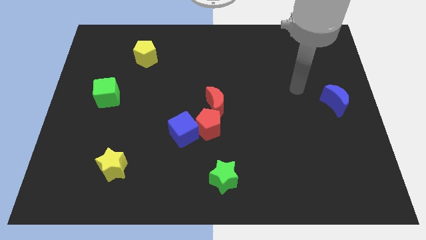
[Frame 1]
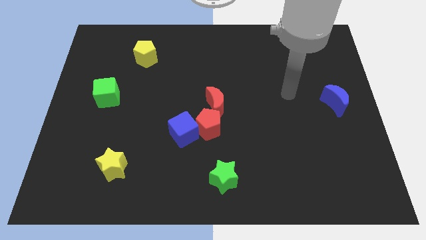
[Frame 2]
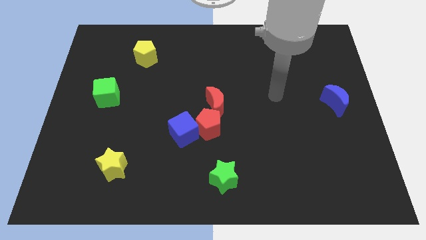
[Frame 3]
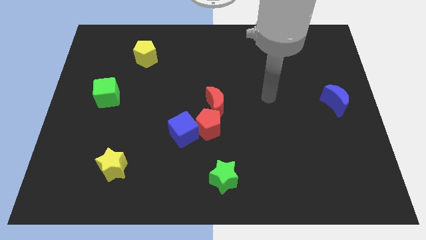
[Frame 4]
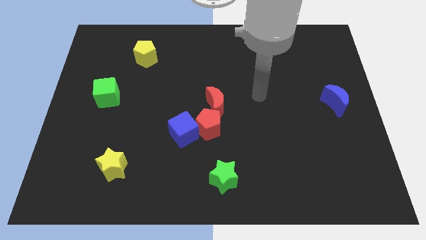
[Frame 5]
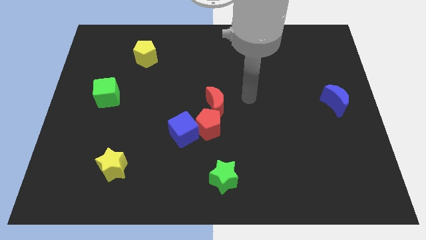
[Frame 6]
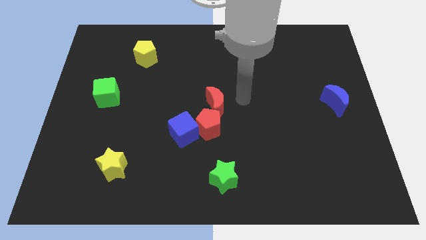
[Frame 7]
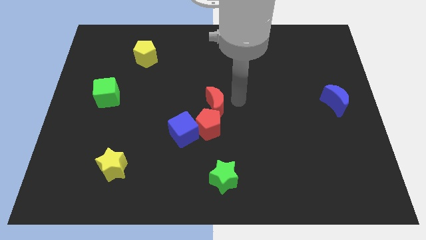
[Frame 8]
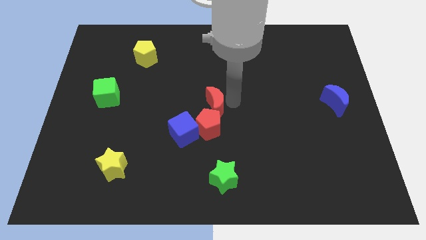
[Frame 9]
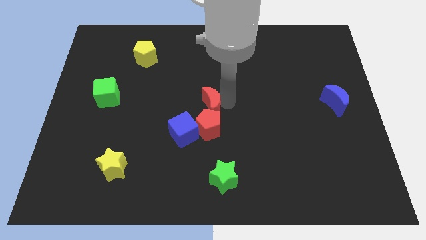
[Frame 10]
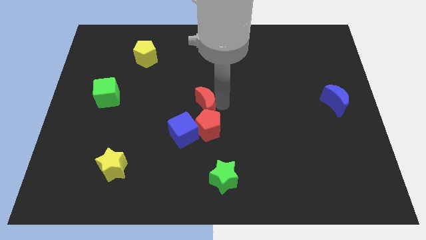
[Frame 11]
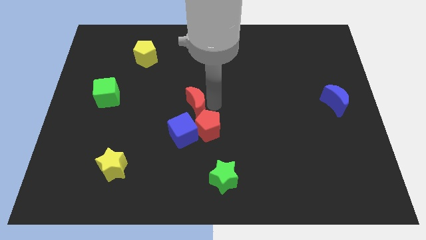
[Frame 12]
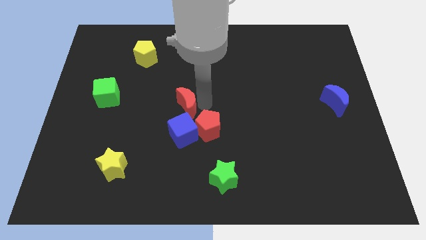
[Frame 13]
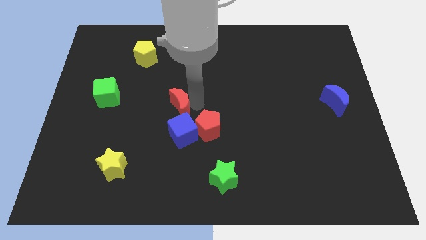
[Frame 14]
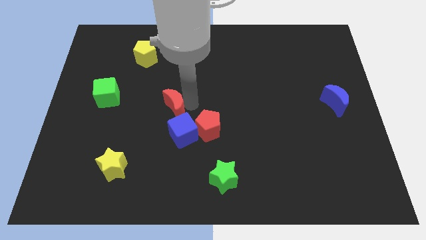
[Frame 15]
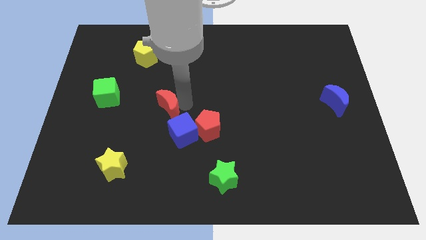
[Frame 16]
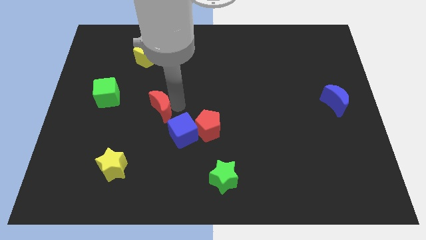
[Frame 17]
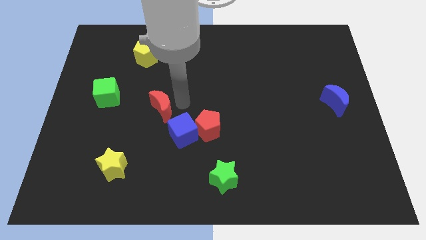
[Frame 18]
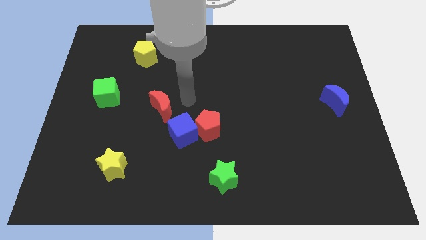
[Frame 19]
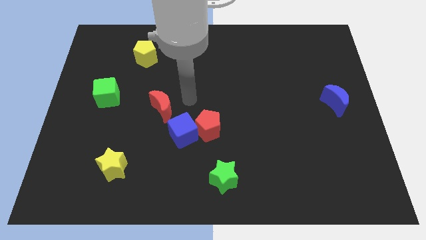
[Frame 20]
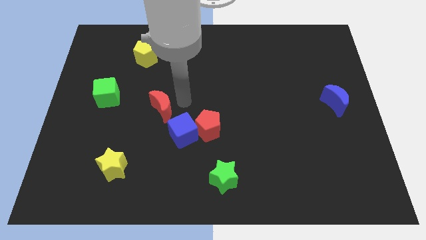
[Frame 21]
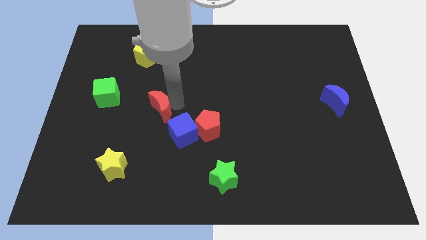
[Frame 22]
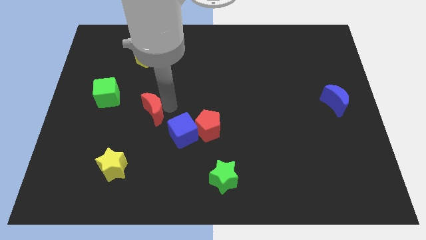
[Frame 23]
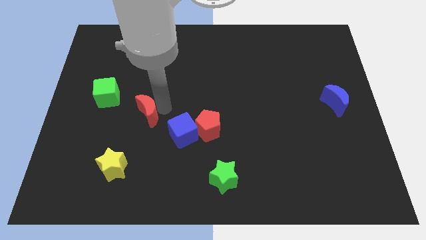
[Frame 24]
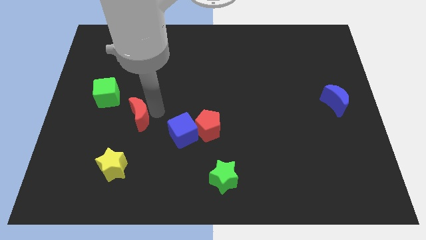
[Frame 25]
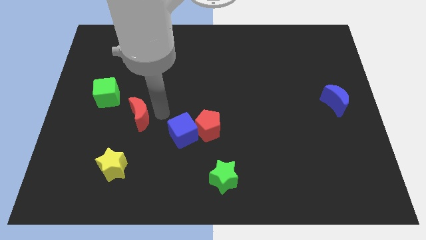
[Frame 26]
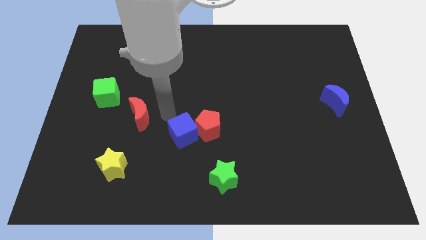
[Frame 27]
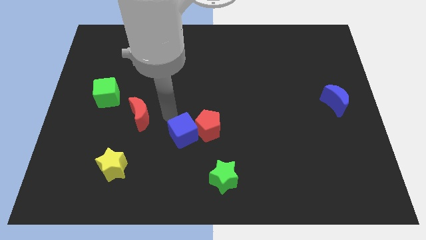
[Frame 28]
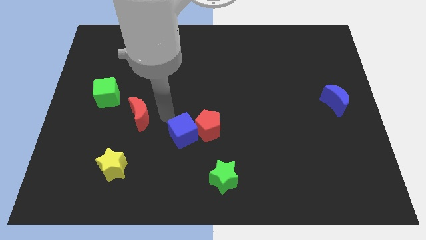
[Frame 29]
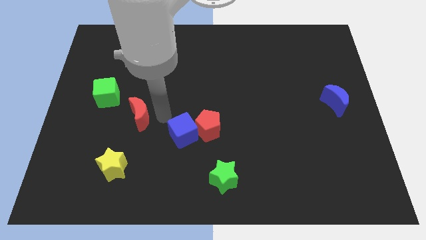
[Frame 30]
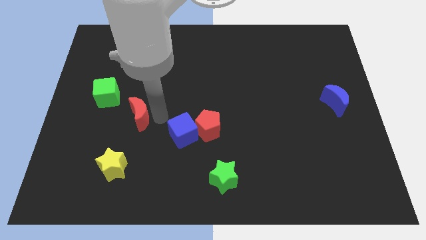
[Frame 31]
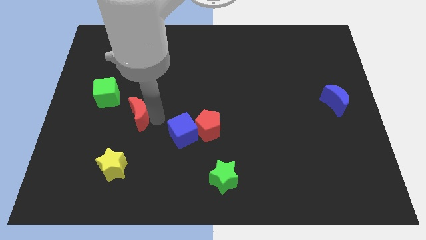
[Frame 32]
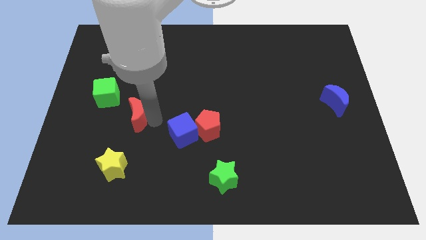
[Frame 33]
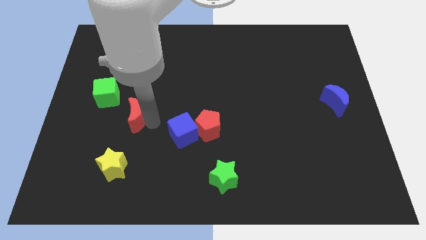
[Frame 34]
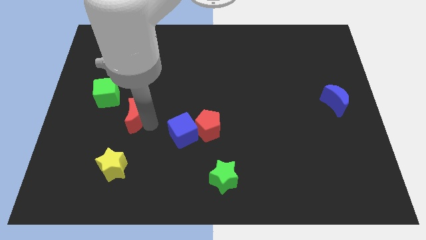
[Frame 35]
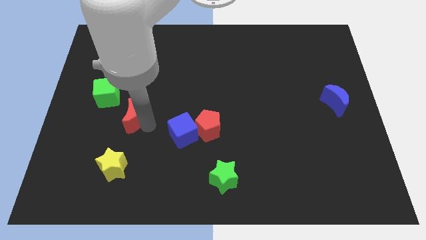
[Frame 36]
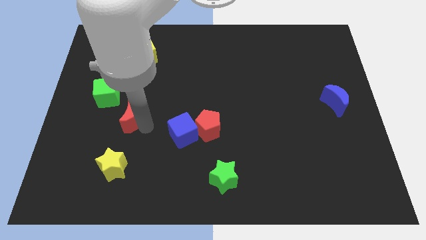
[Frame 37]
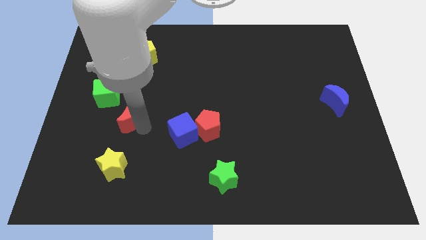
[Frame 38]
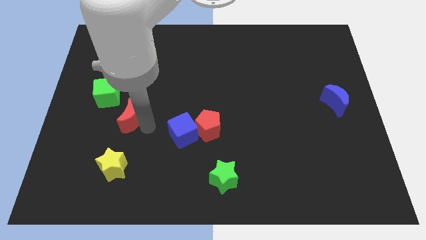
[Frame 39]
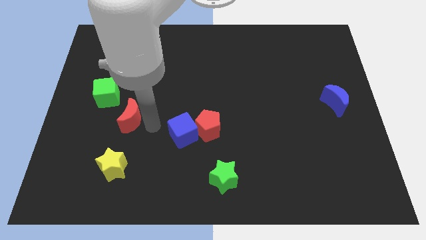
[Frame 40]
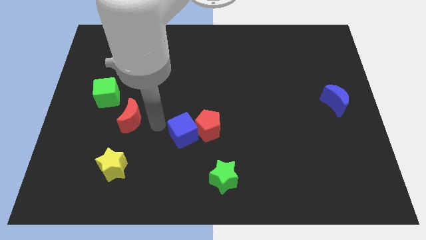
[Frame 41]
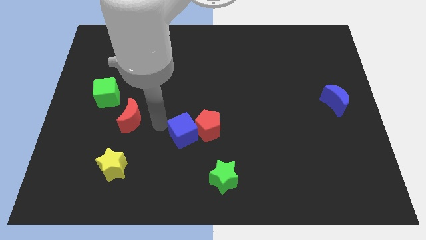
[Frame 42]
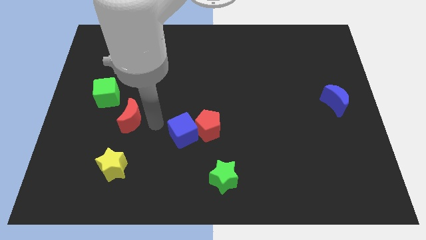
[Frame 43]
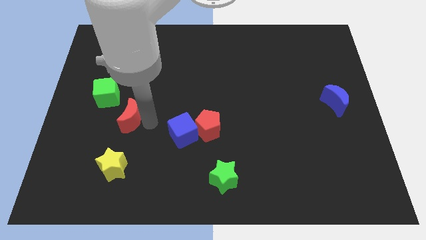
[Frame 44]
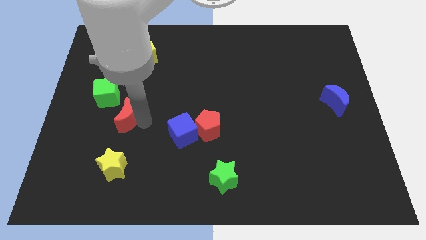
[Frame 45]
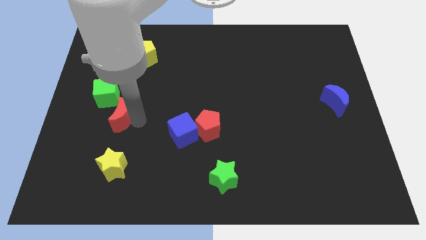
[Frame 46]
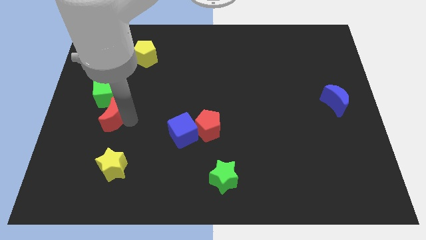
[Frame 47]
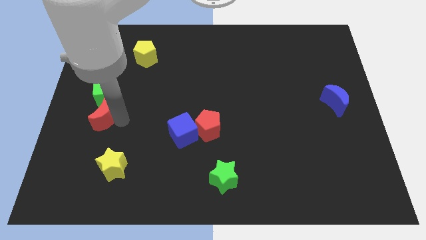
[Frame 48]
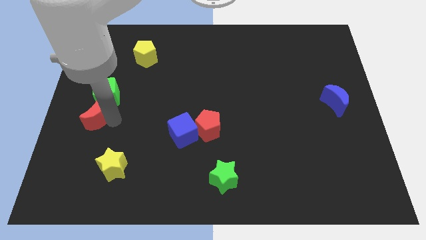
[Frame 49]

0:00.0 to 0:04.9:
move the red moon to the left side

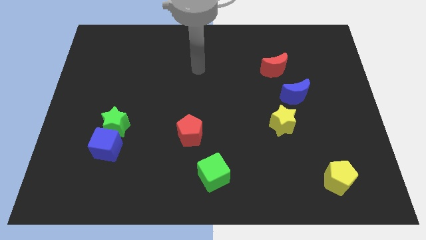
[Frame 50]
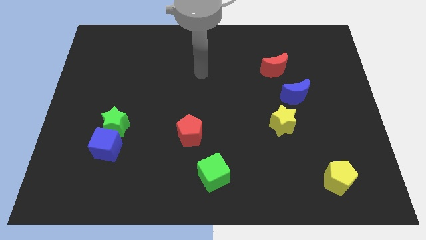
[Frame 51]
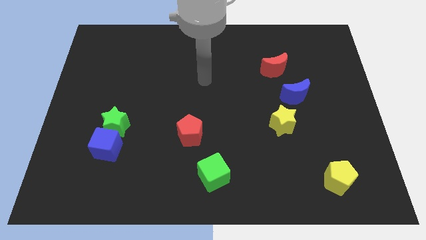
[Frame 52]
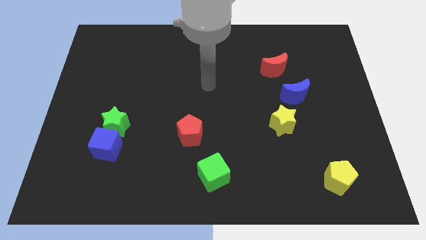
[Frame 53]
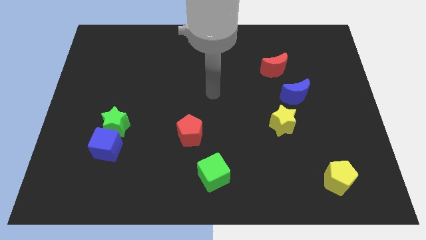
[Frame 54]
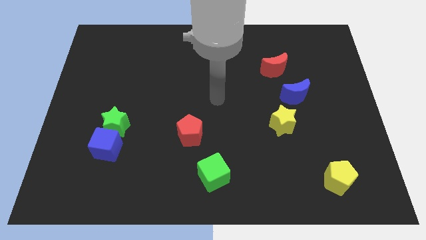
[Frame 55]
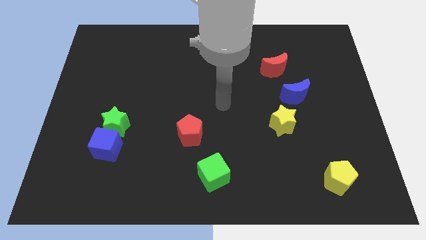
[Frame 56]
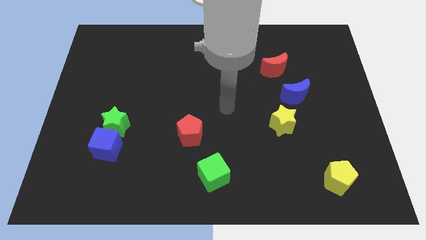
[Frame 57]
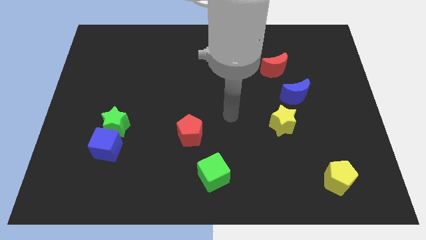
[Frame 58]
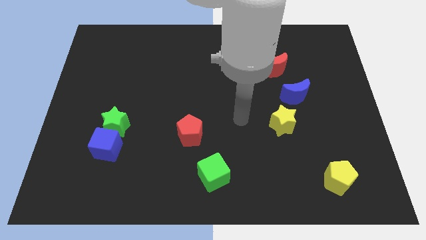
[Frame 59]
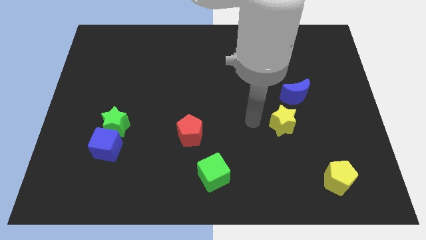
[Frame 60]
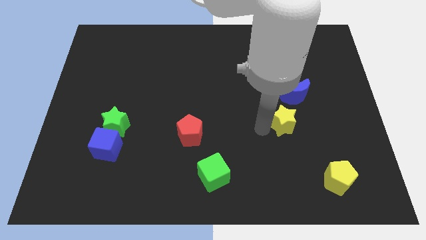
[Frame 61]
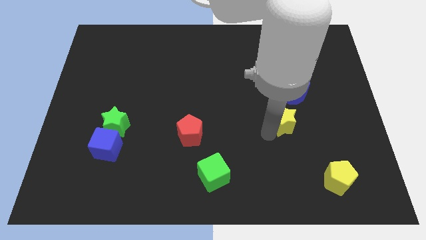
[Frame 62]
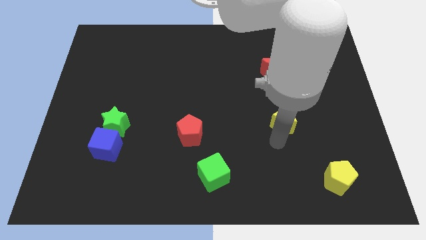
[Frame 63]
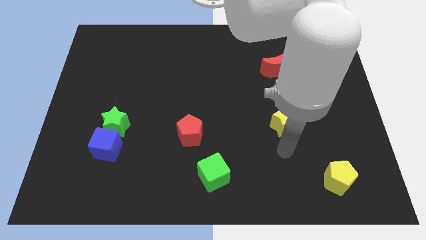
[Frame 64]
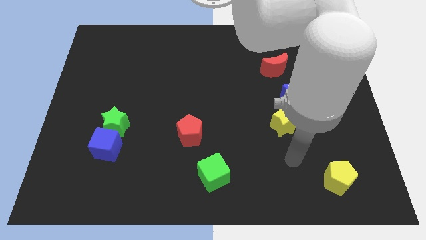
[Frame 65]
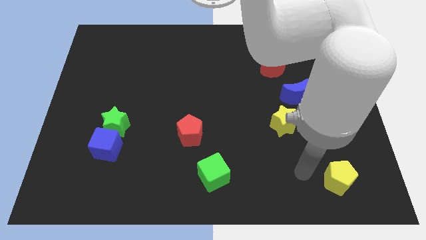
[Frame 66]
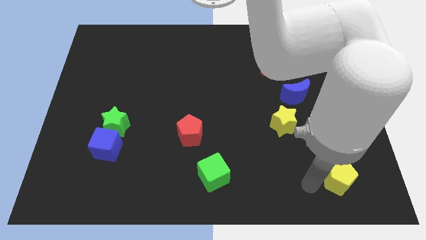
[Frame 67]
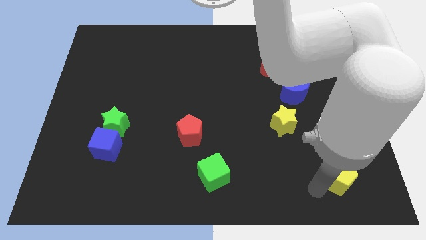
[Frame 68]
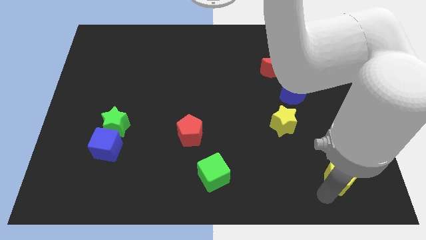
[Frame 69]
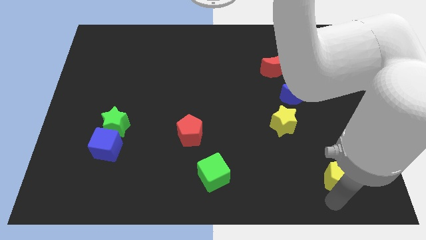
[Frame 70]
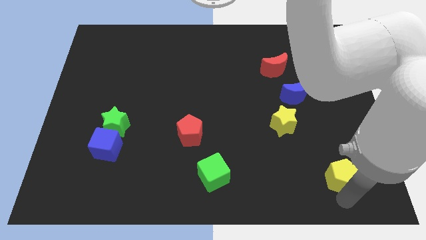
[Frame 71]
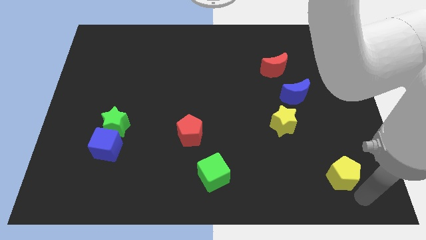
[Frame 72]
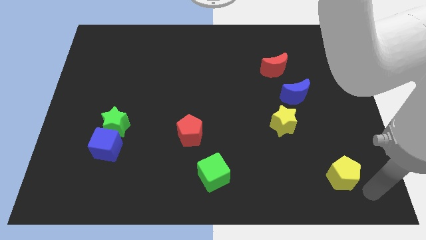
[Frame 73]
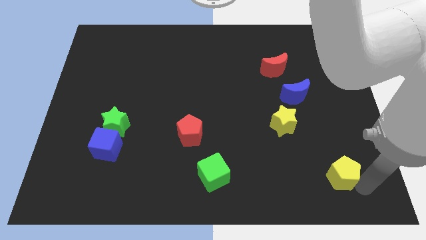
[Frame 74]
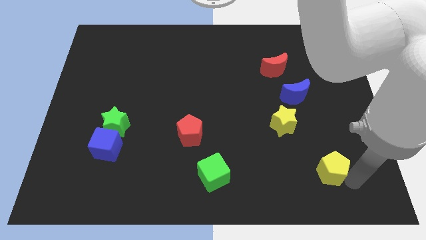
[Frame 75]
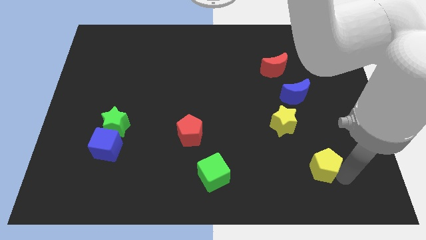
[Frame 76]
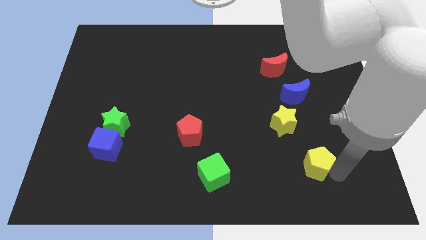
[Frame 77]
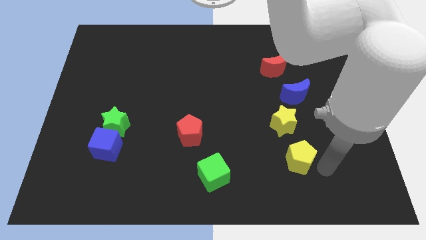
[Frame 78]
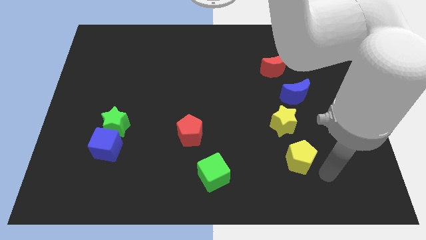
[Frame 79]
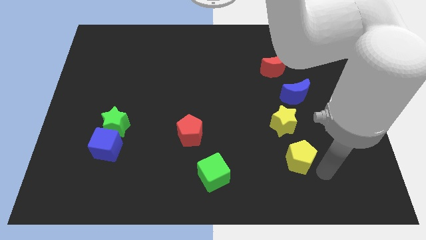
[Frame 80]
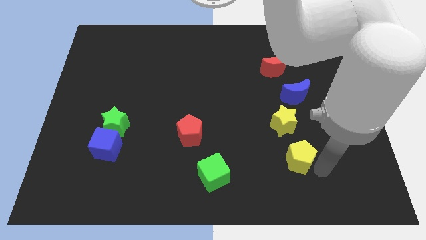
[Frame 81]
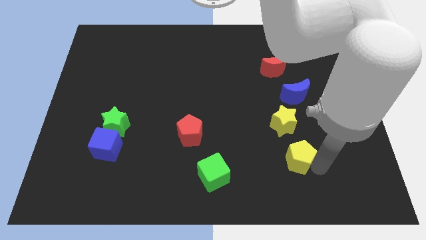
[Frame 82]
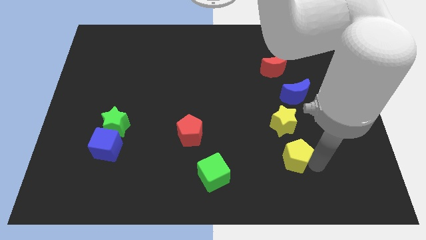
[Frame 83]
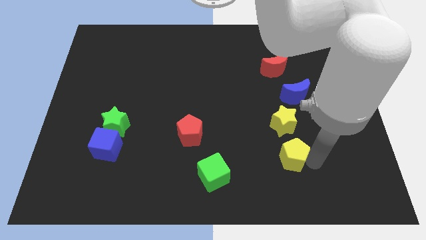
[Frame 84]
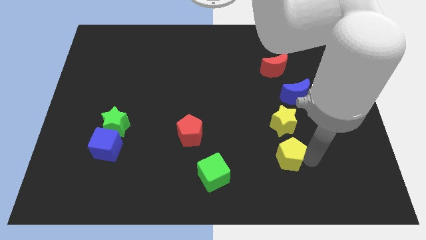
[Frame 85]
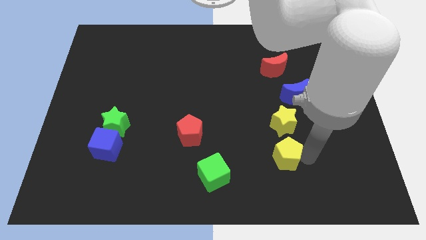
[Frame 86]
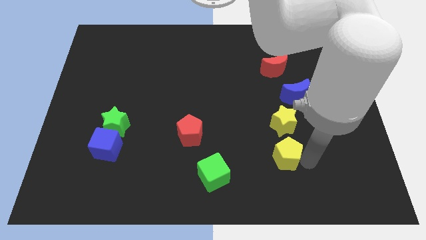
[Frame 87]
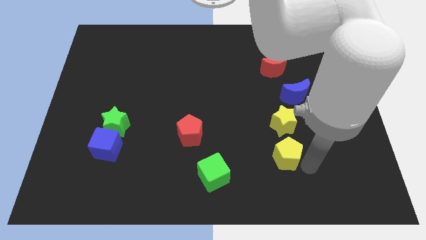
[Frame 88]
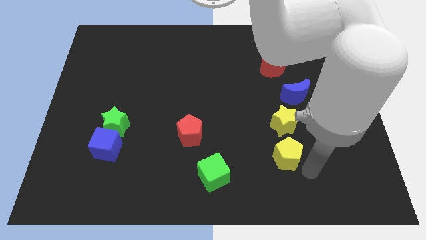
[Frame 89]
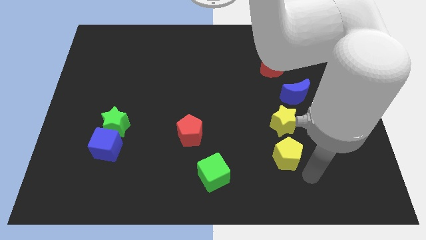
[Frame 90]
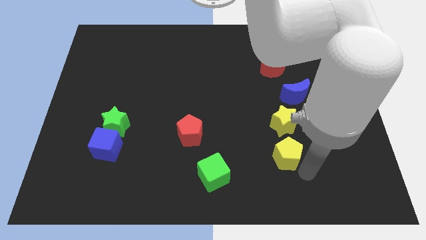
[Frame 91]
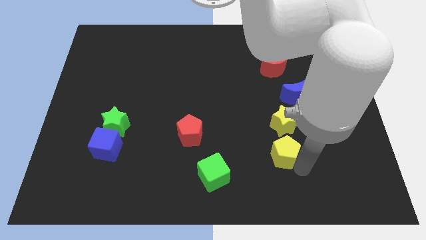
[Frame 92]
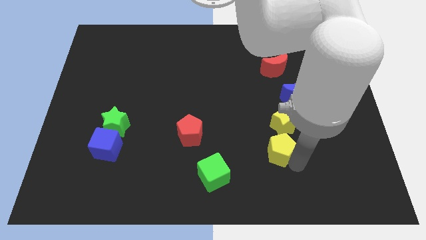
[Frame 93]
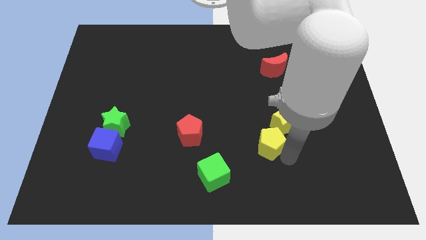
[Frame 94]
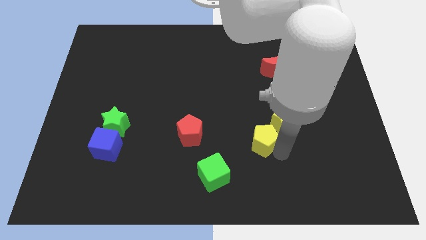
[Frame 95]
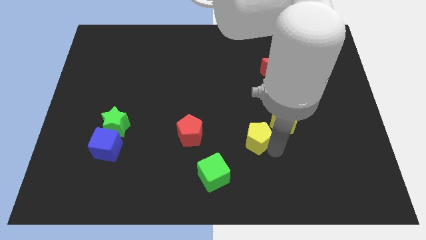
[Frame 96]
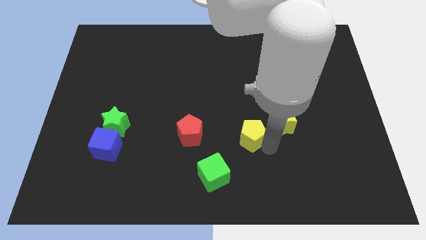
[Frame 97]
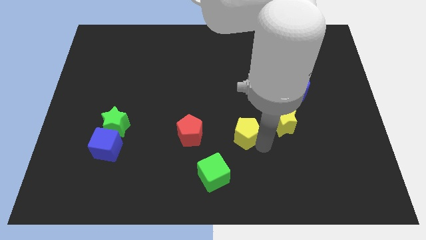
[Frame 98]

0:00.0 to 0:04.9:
move the yellow pentagon to the middle
